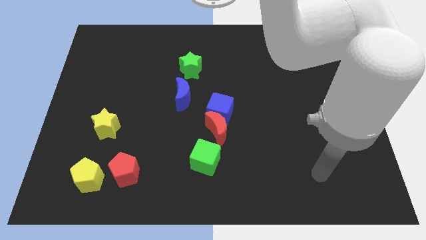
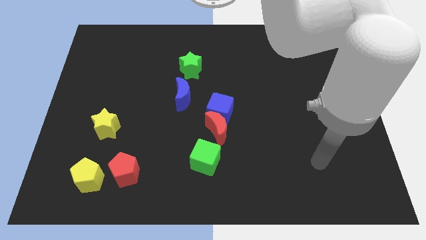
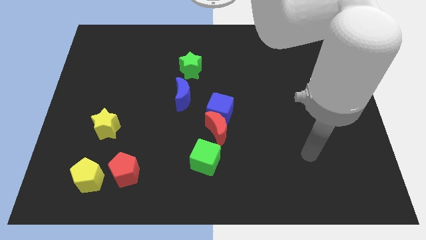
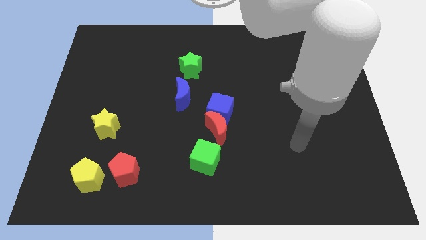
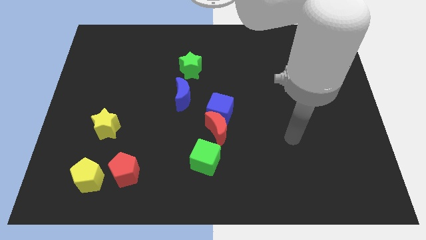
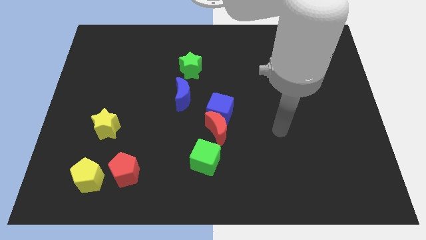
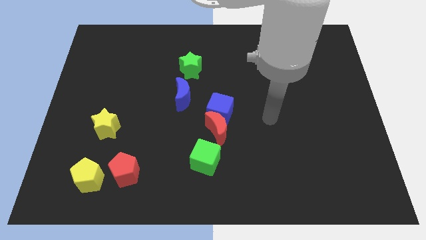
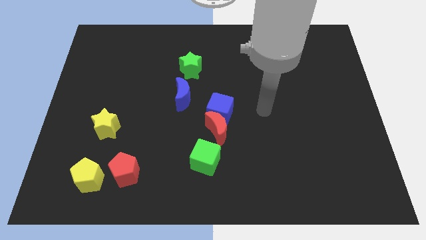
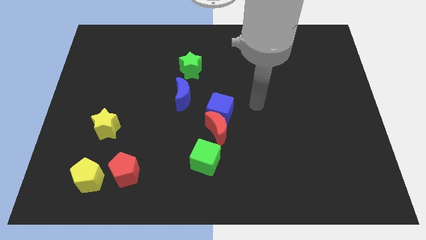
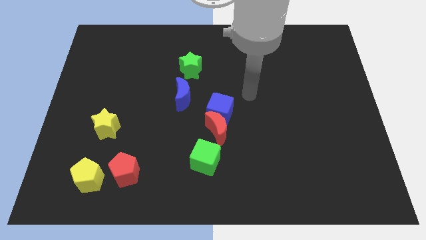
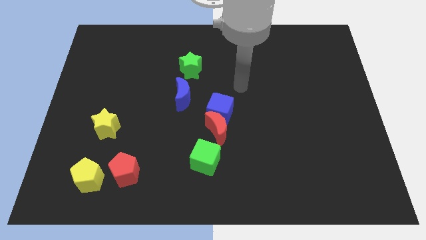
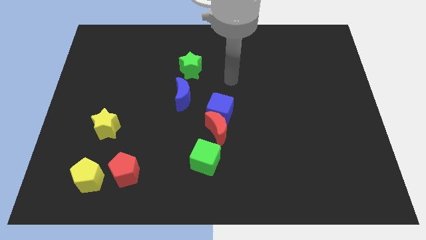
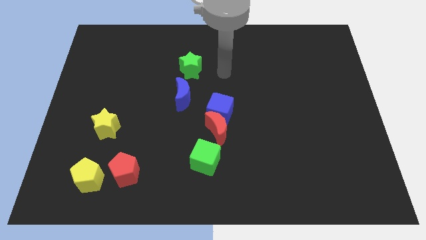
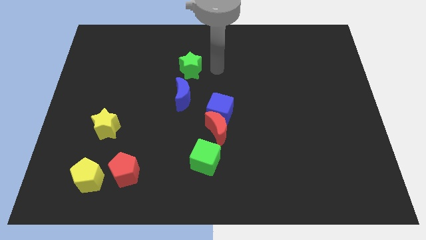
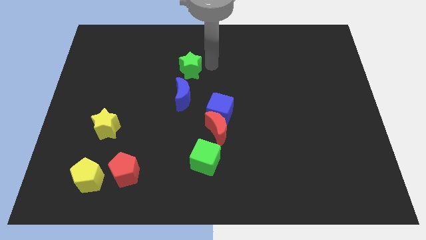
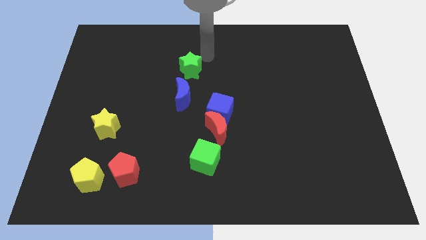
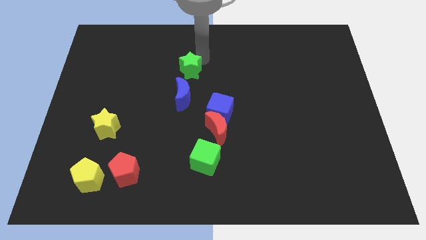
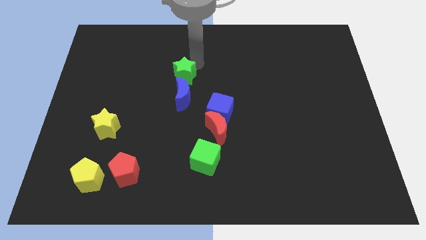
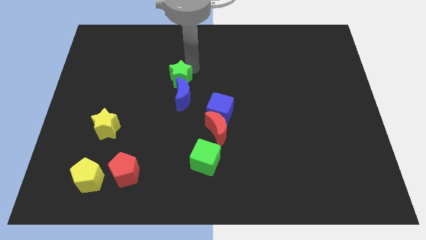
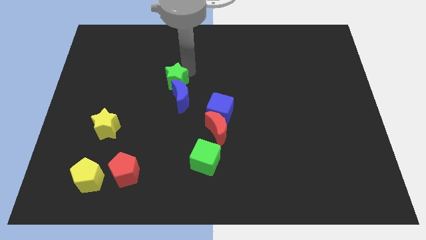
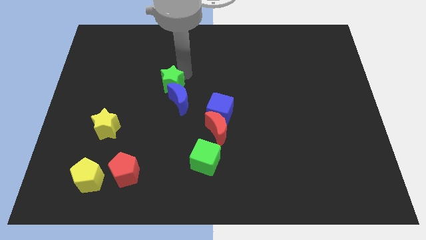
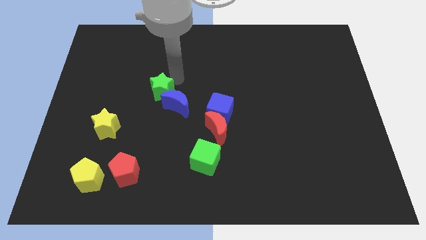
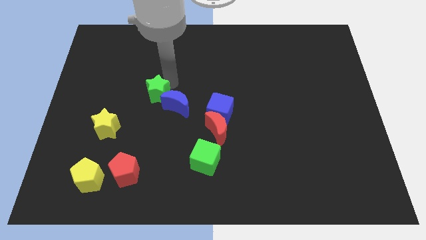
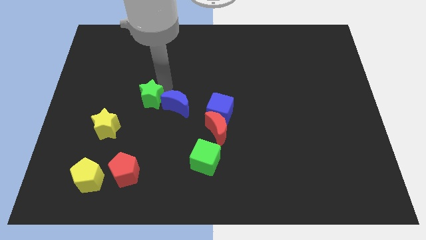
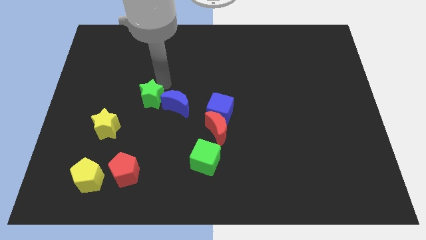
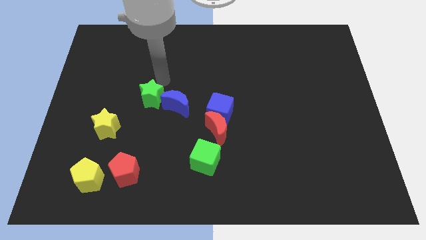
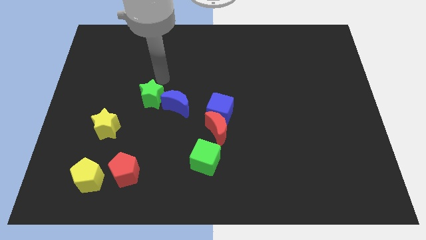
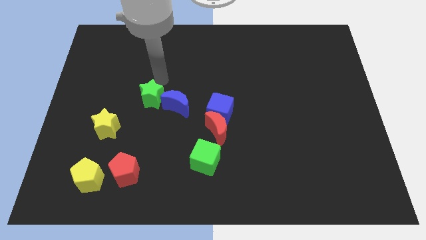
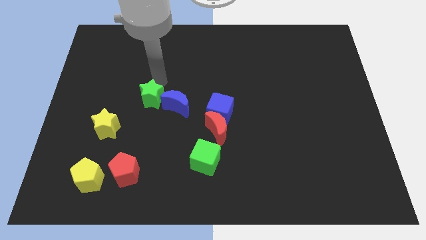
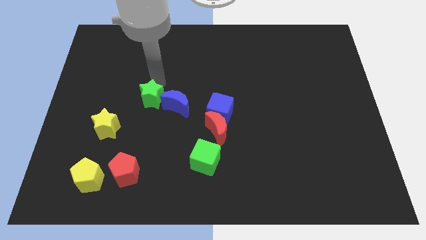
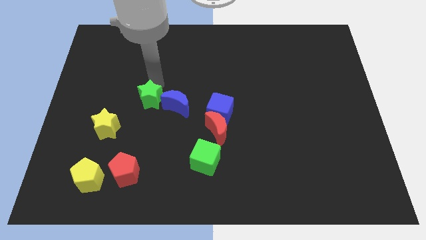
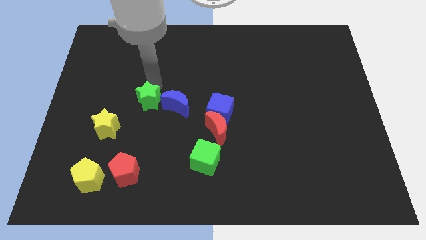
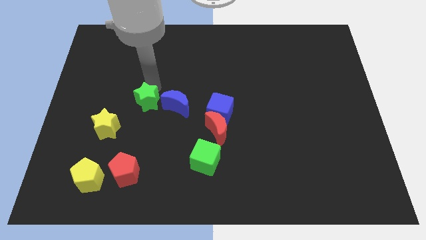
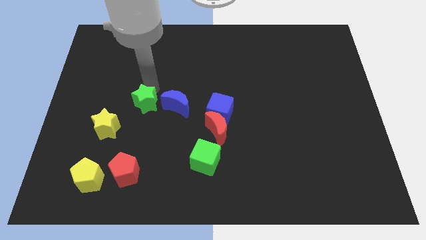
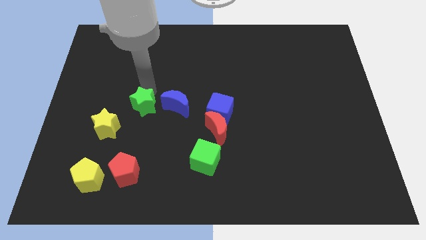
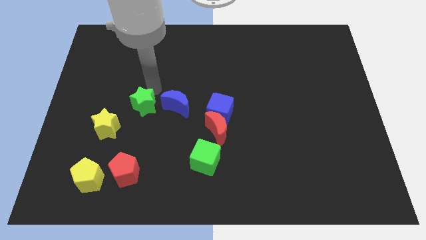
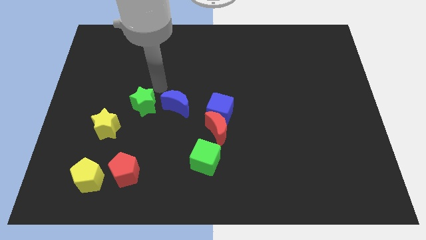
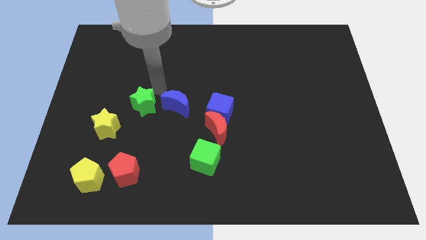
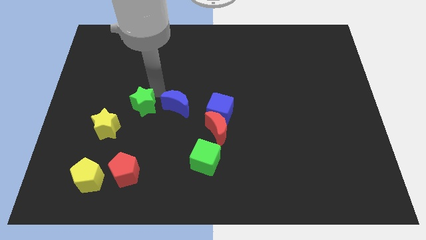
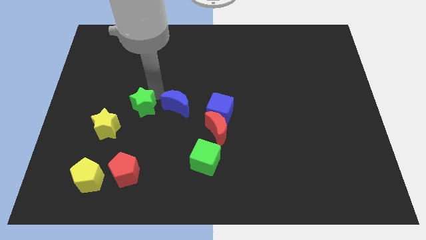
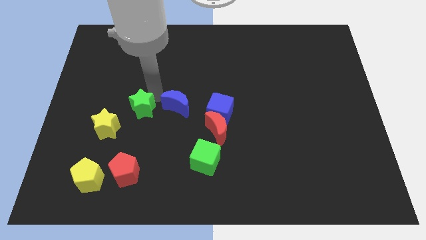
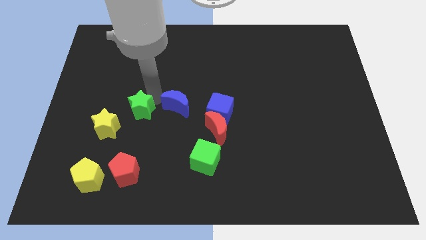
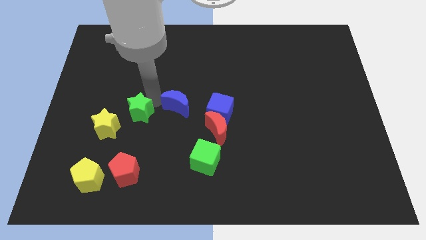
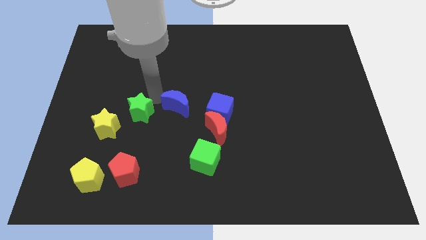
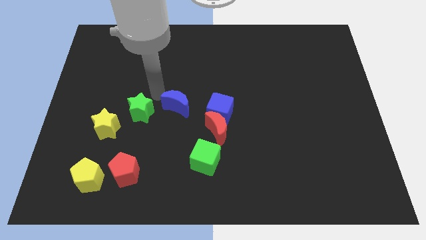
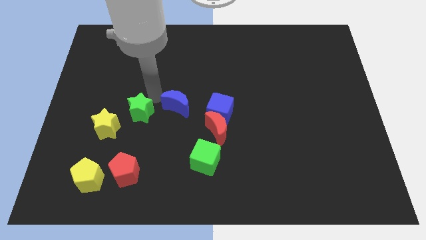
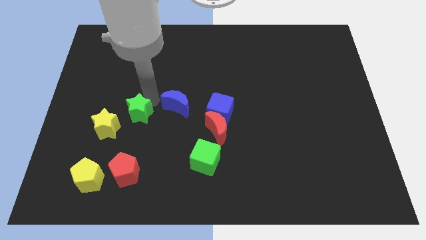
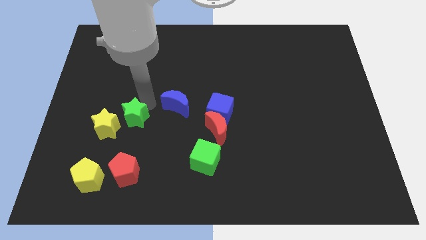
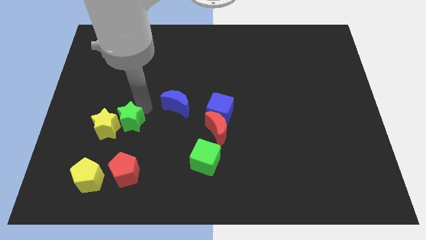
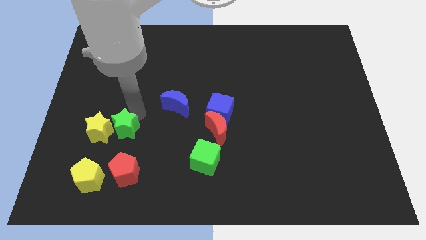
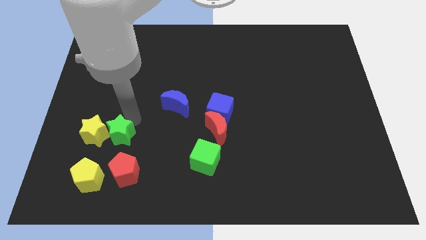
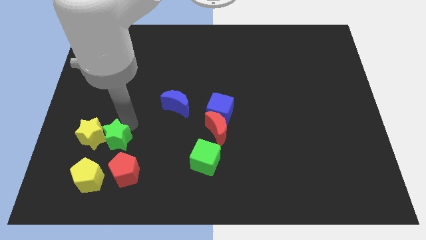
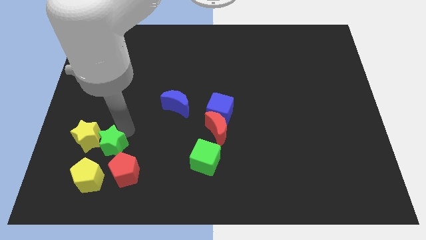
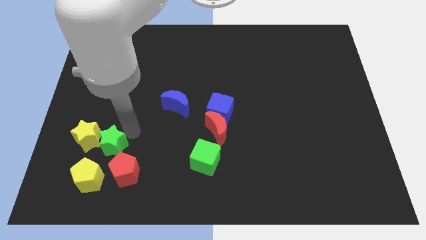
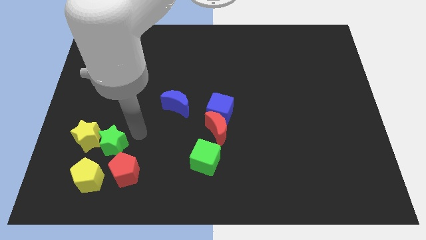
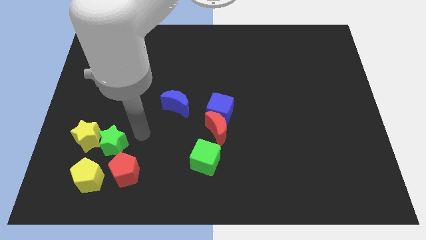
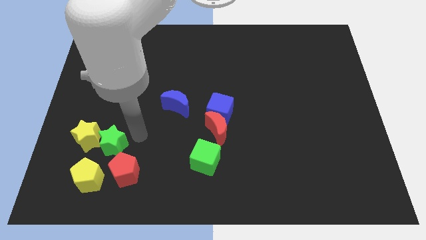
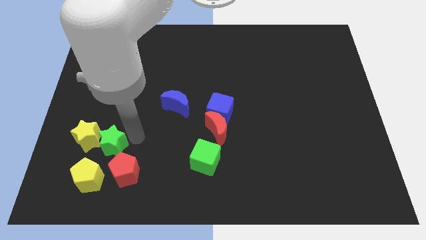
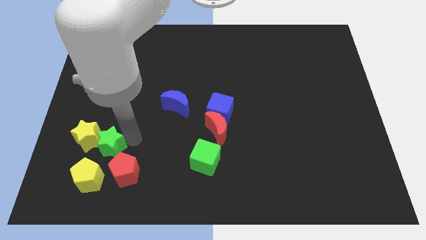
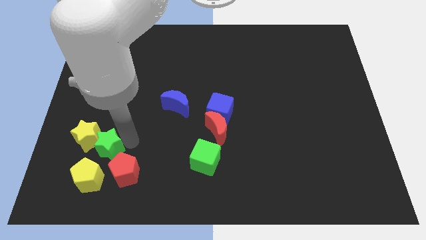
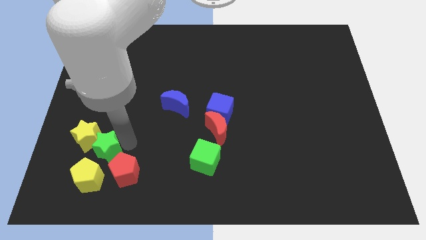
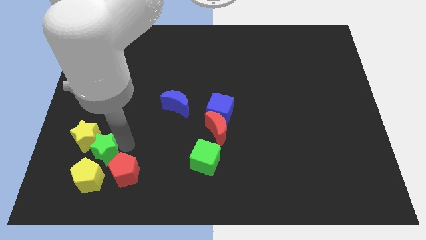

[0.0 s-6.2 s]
slide the green star to the left of the red pentagon
